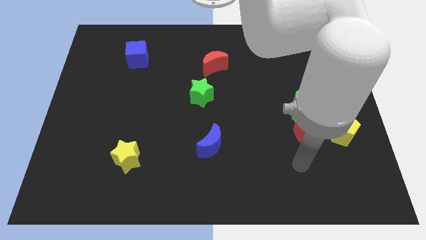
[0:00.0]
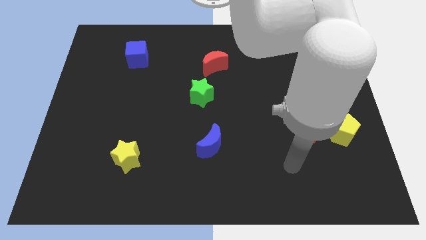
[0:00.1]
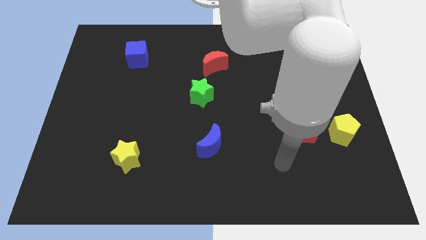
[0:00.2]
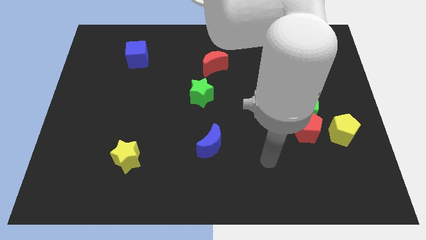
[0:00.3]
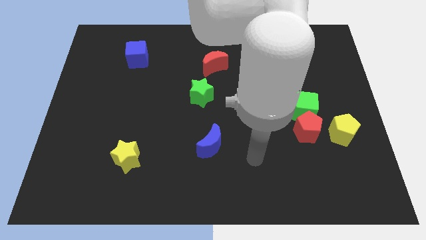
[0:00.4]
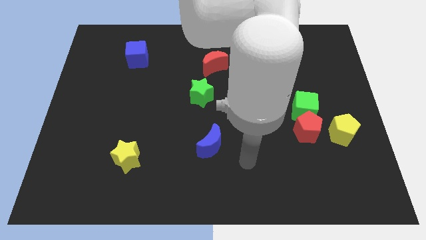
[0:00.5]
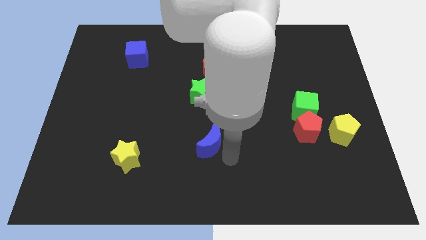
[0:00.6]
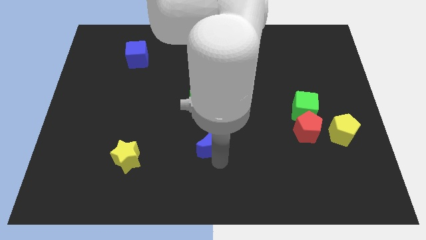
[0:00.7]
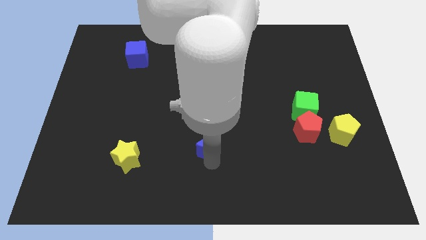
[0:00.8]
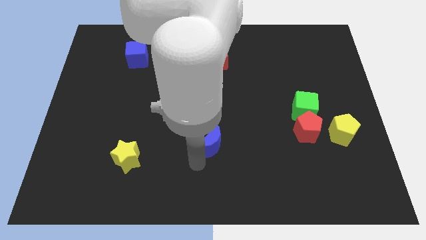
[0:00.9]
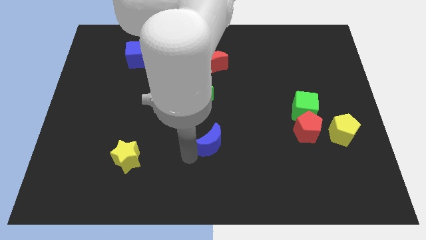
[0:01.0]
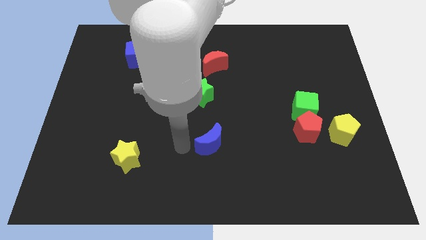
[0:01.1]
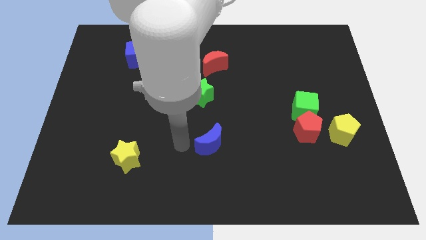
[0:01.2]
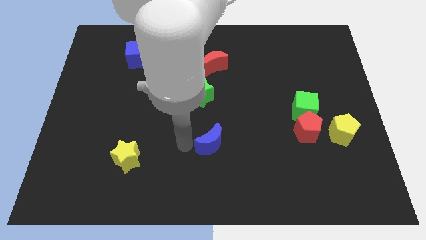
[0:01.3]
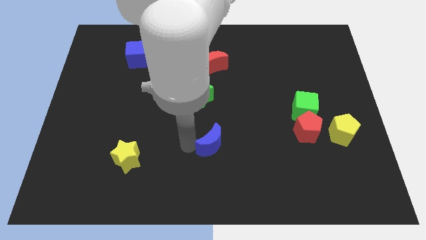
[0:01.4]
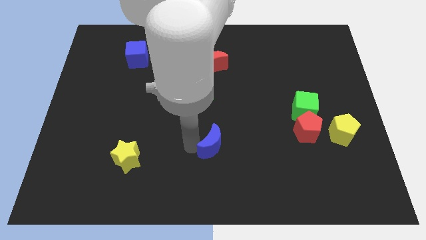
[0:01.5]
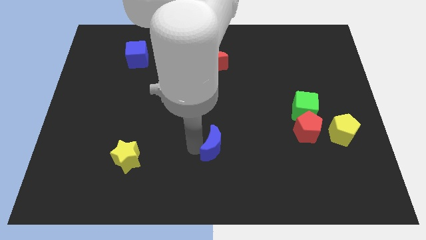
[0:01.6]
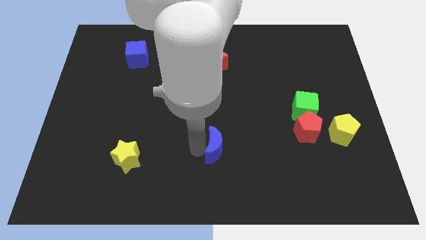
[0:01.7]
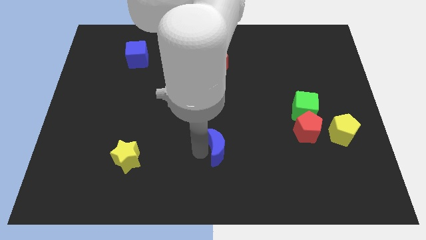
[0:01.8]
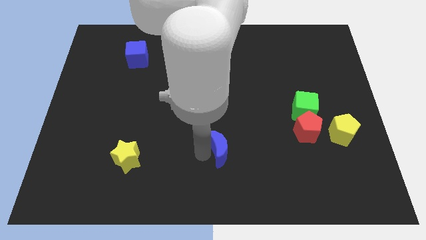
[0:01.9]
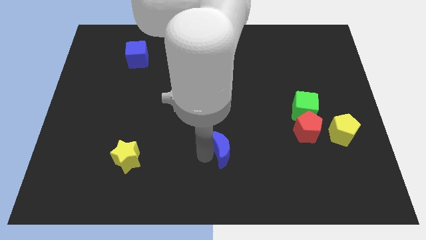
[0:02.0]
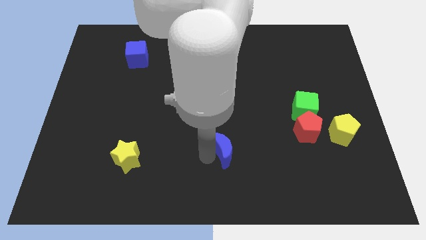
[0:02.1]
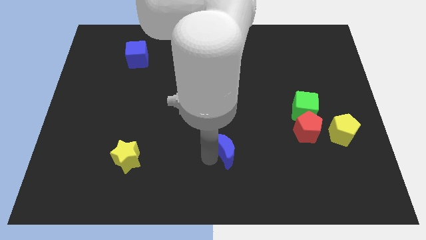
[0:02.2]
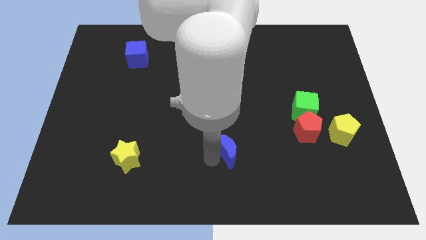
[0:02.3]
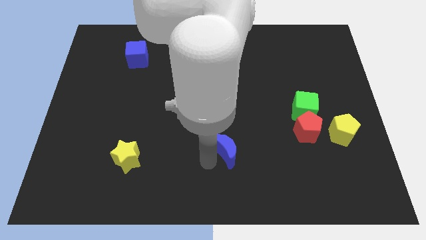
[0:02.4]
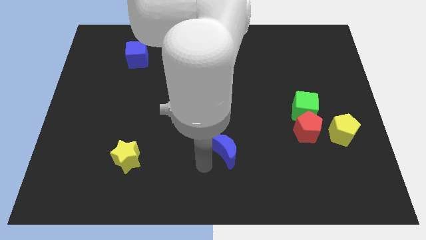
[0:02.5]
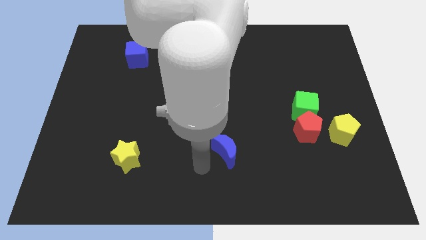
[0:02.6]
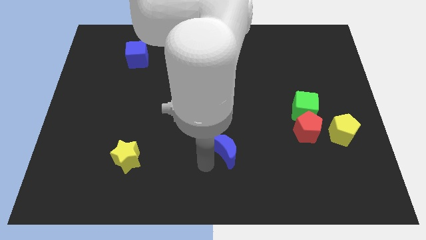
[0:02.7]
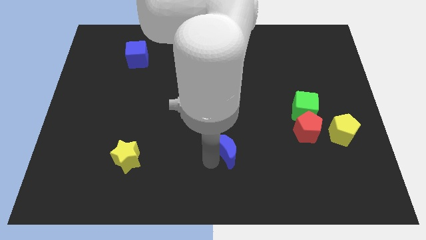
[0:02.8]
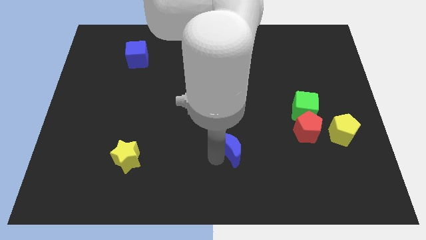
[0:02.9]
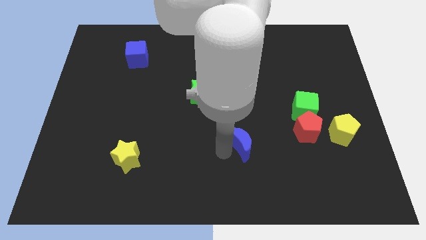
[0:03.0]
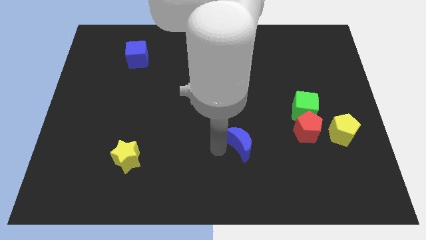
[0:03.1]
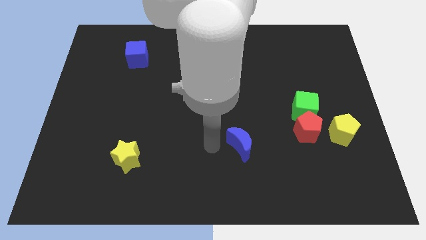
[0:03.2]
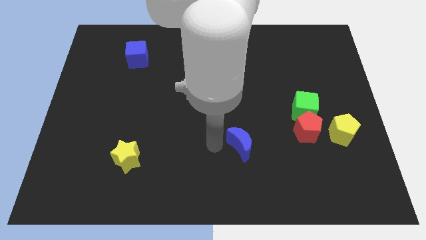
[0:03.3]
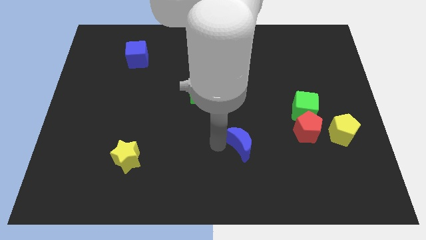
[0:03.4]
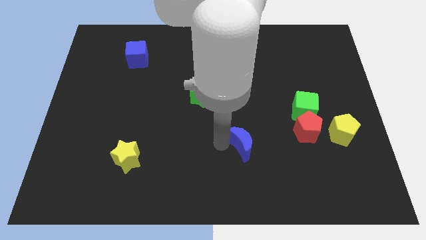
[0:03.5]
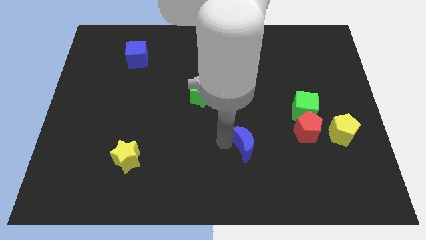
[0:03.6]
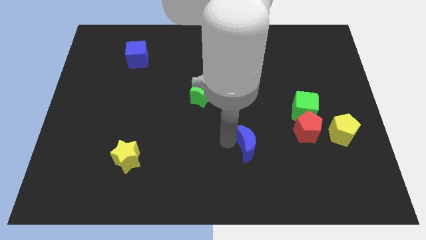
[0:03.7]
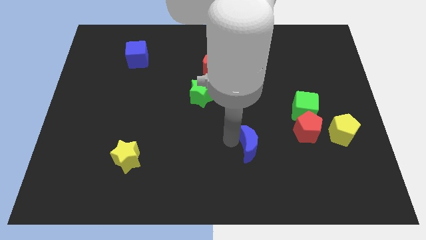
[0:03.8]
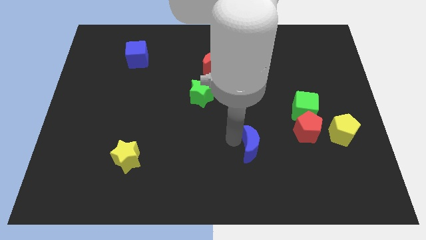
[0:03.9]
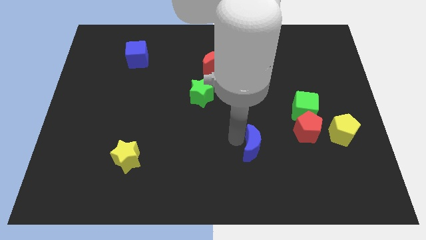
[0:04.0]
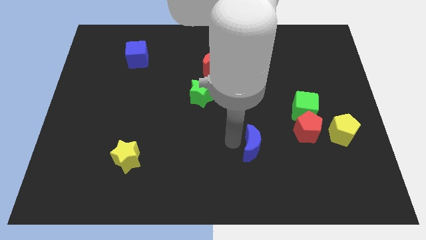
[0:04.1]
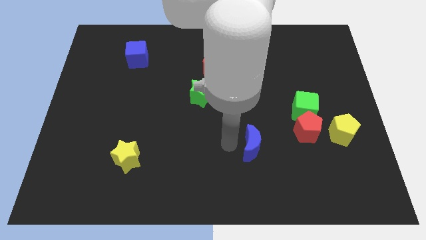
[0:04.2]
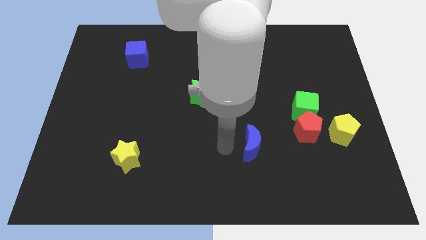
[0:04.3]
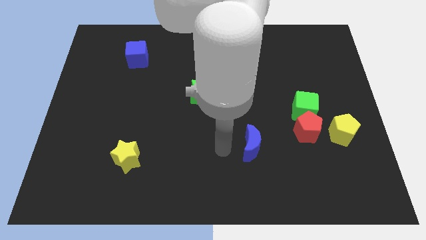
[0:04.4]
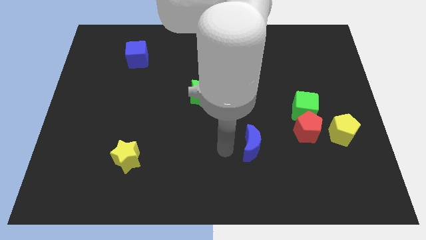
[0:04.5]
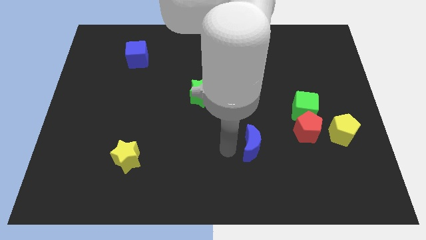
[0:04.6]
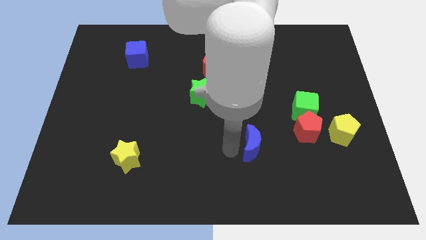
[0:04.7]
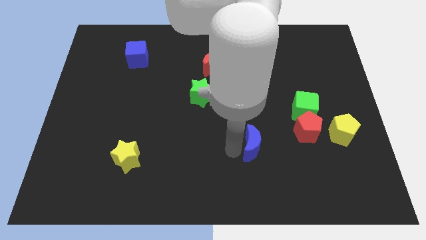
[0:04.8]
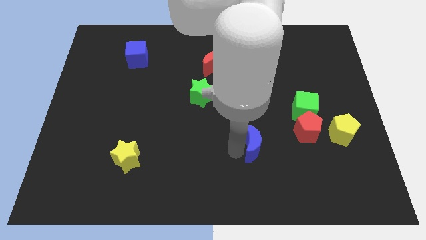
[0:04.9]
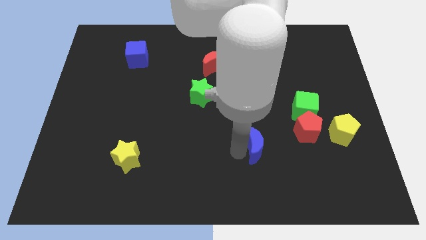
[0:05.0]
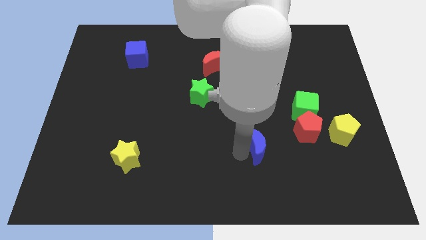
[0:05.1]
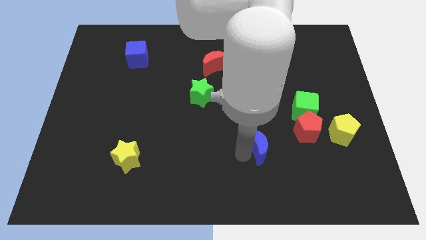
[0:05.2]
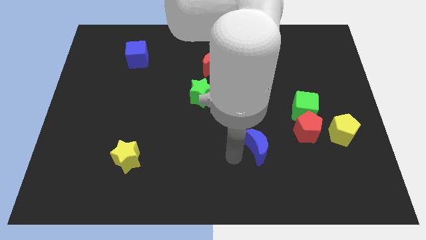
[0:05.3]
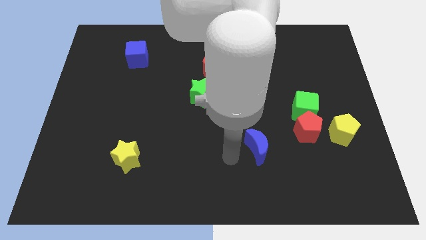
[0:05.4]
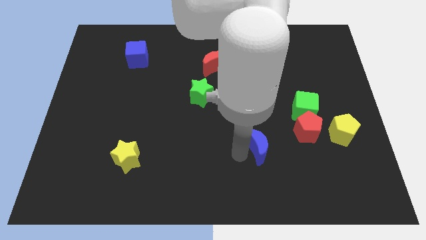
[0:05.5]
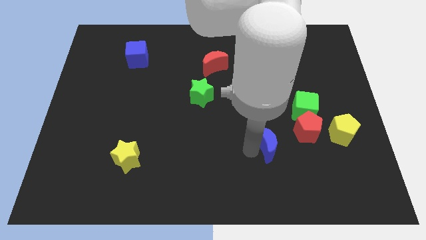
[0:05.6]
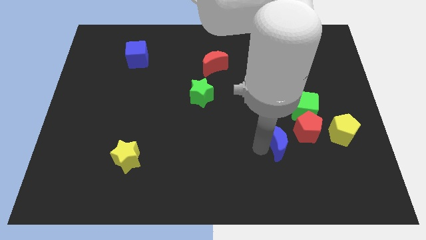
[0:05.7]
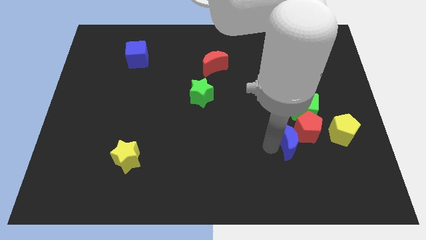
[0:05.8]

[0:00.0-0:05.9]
push the blue moon next to the red pentagon

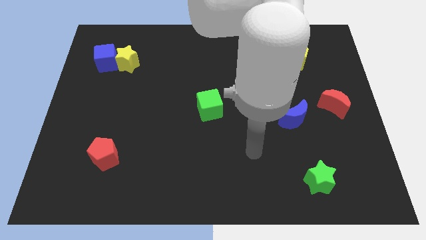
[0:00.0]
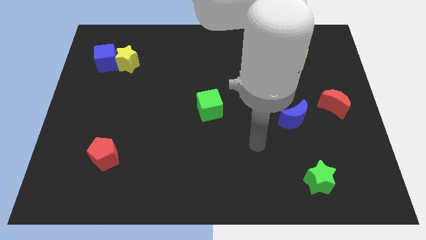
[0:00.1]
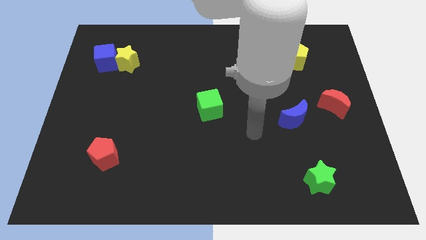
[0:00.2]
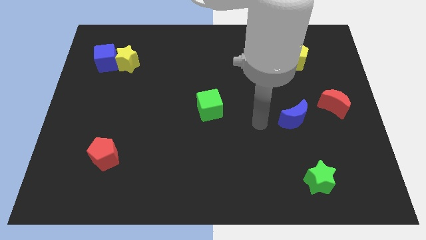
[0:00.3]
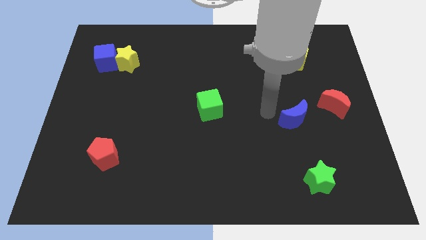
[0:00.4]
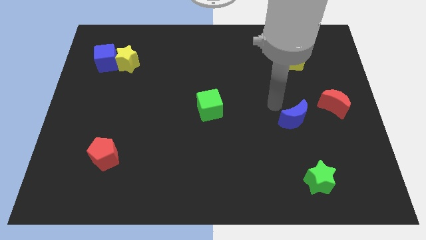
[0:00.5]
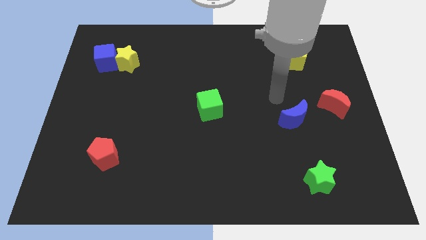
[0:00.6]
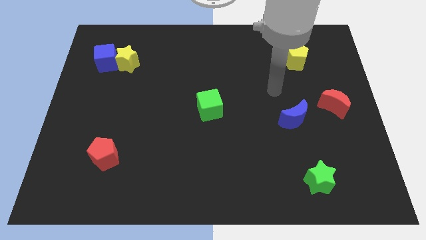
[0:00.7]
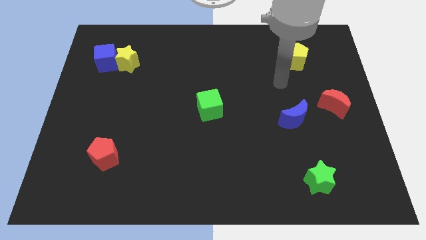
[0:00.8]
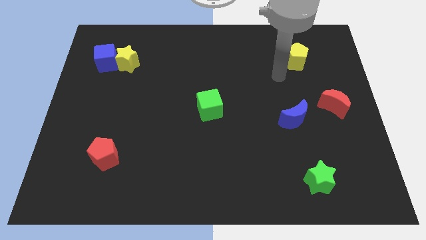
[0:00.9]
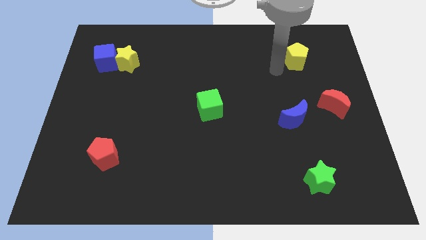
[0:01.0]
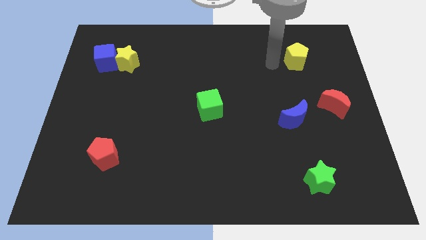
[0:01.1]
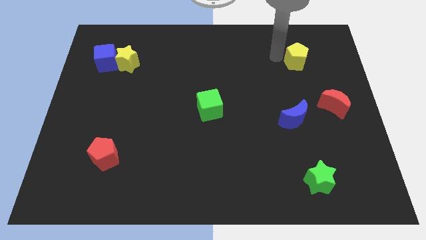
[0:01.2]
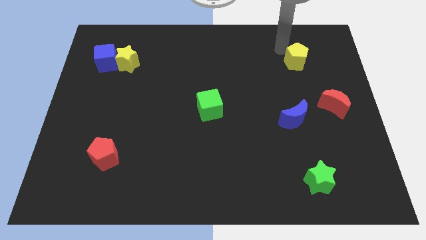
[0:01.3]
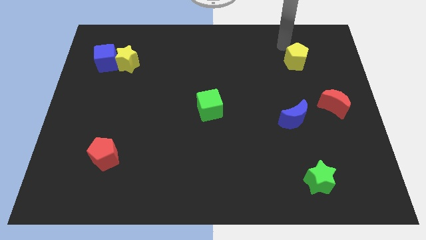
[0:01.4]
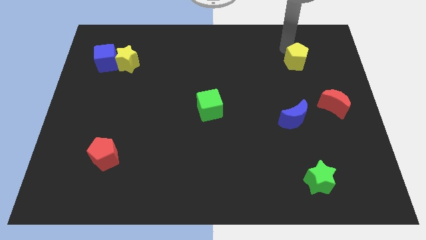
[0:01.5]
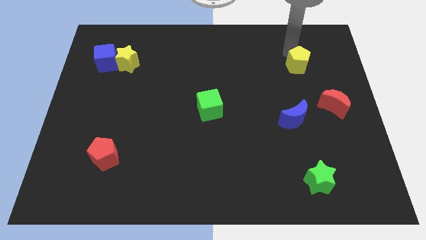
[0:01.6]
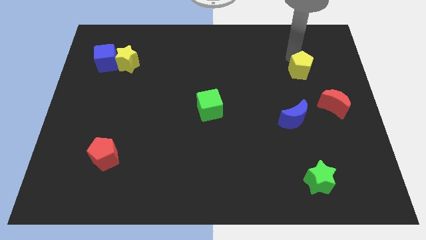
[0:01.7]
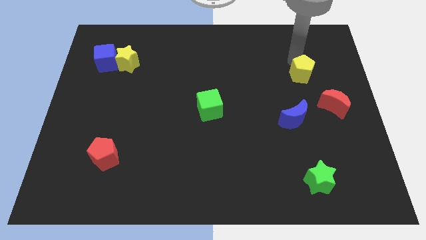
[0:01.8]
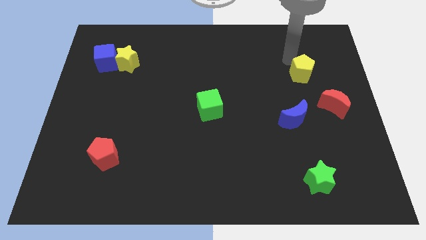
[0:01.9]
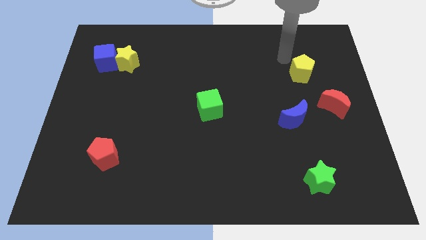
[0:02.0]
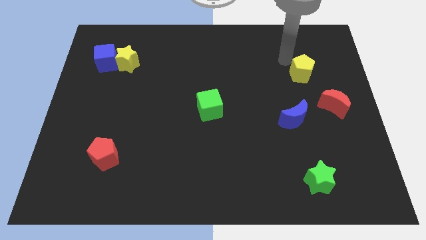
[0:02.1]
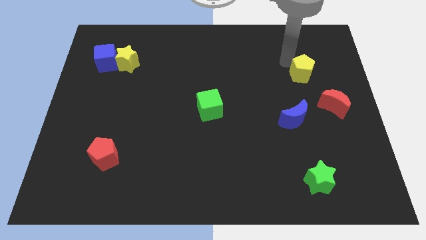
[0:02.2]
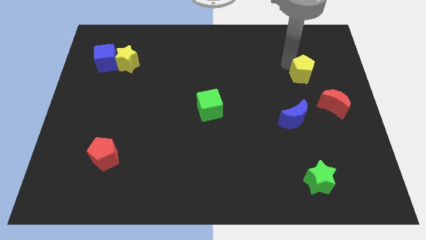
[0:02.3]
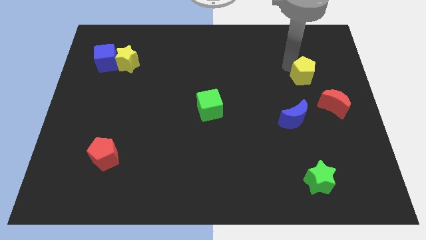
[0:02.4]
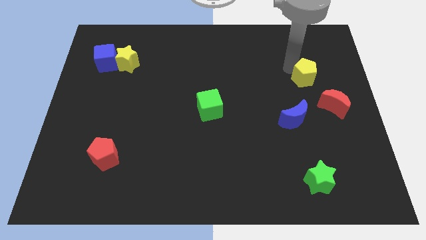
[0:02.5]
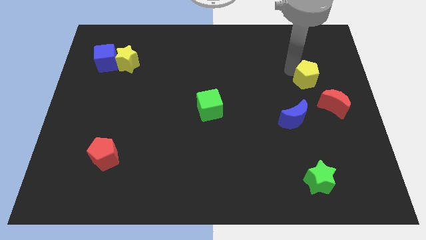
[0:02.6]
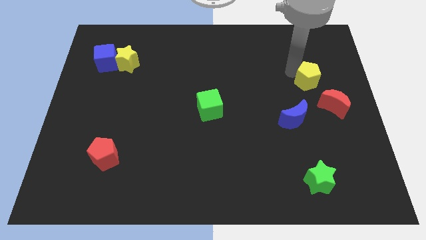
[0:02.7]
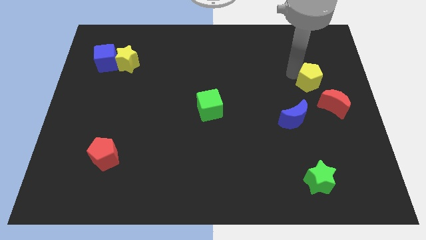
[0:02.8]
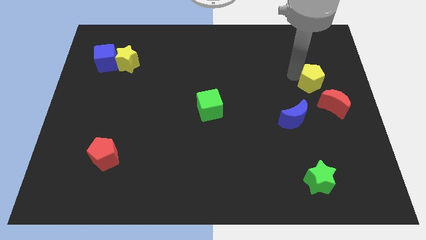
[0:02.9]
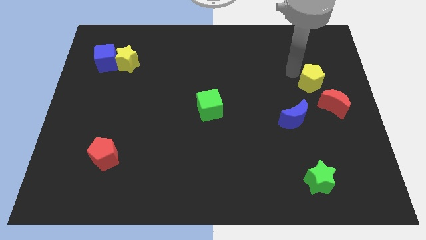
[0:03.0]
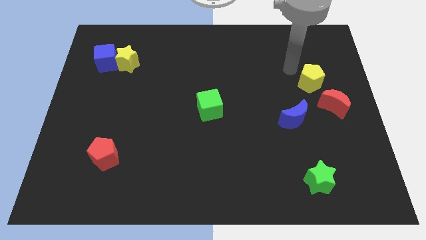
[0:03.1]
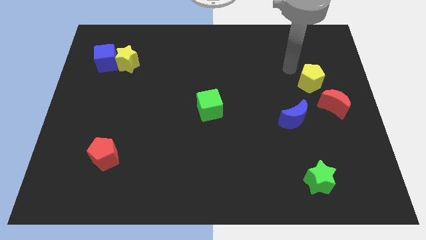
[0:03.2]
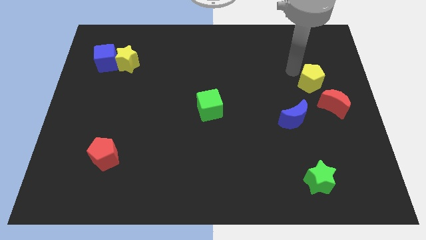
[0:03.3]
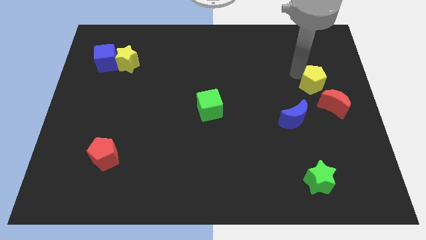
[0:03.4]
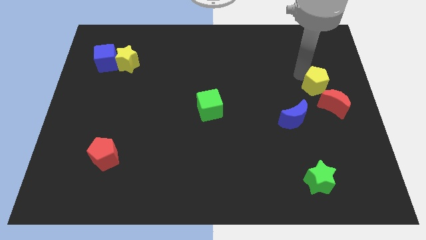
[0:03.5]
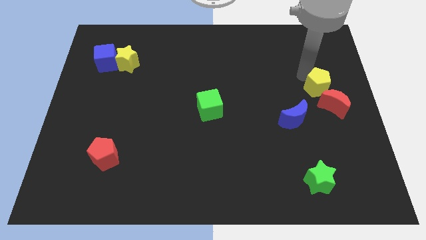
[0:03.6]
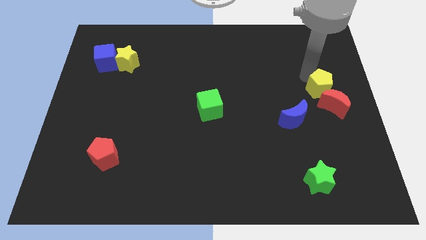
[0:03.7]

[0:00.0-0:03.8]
slide the yellow pentagon towards the red moon
